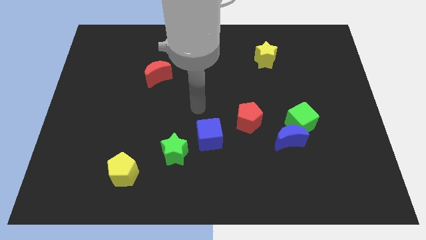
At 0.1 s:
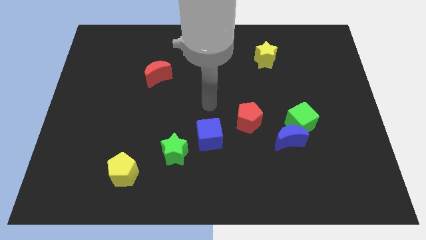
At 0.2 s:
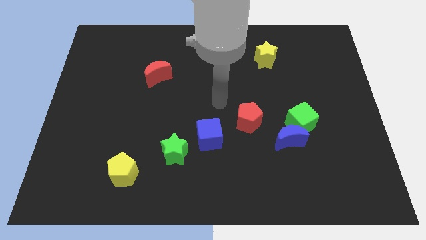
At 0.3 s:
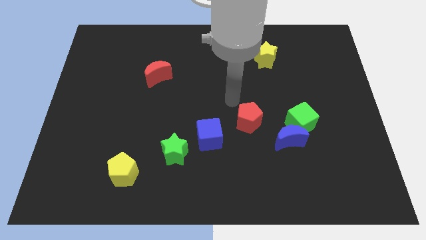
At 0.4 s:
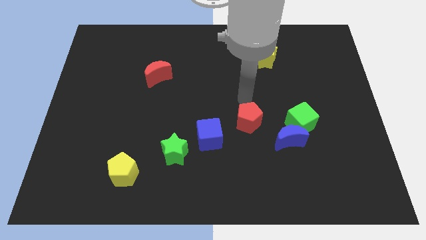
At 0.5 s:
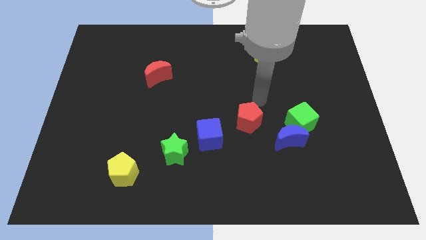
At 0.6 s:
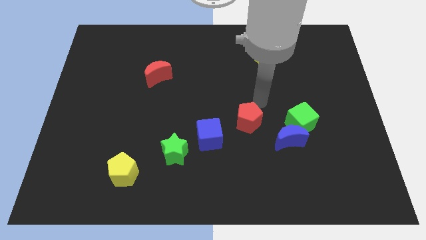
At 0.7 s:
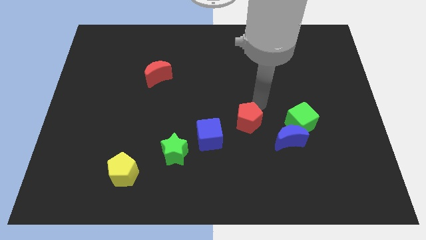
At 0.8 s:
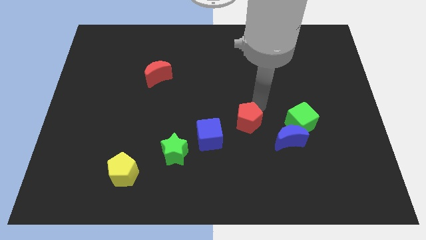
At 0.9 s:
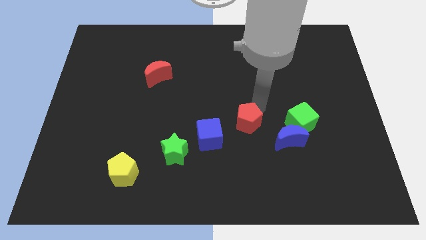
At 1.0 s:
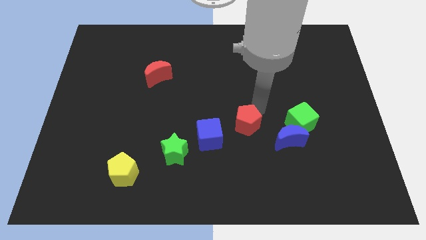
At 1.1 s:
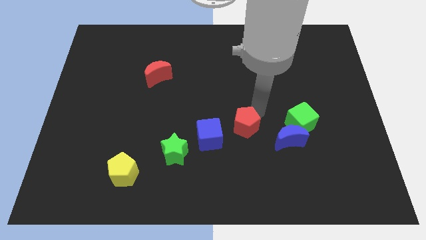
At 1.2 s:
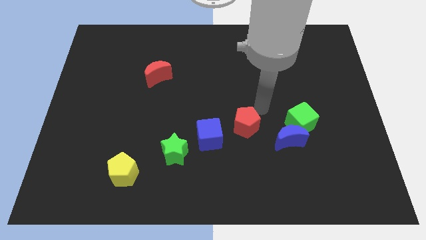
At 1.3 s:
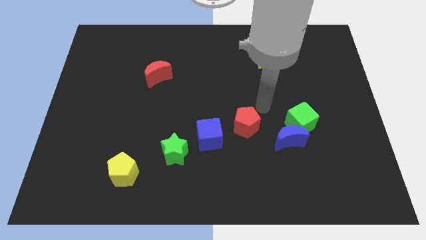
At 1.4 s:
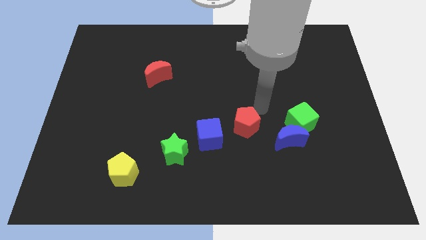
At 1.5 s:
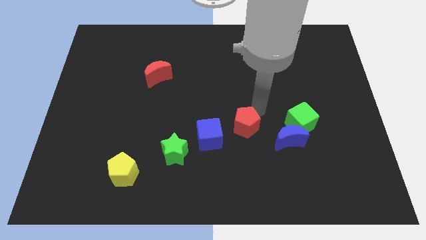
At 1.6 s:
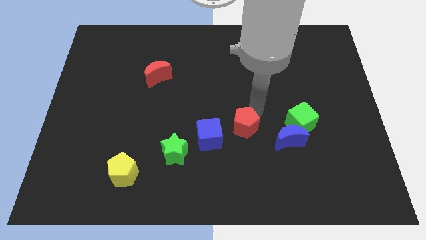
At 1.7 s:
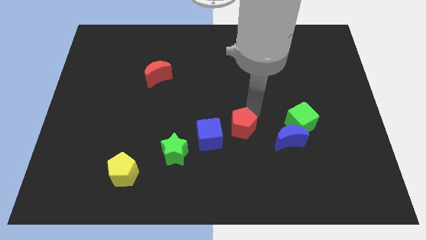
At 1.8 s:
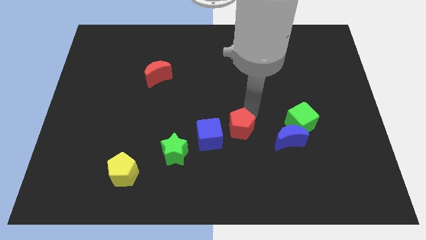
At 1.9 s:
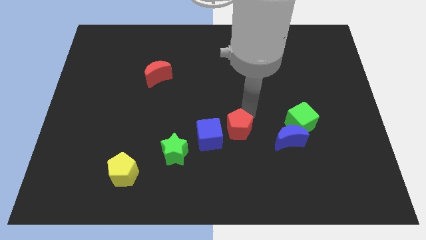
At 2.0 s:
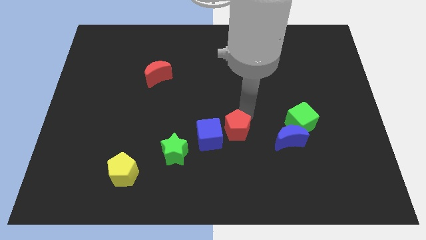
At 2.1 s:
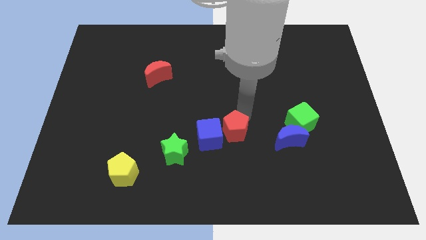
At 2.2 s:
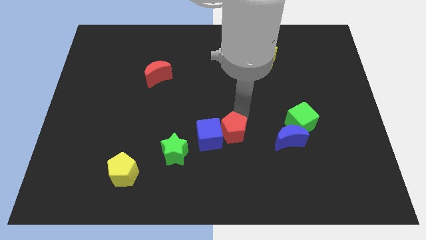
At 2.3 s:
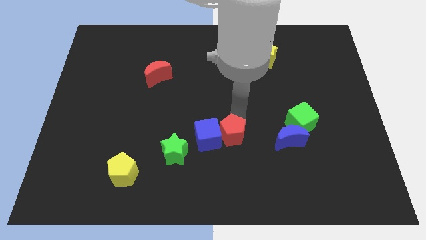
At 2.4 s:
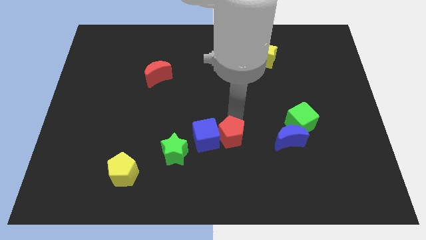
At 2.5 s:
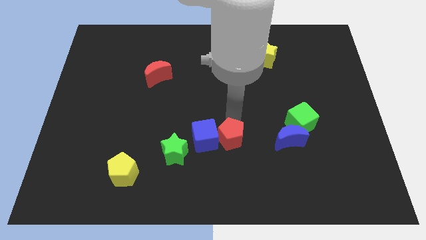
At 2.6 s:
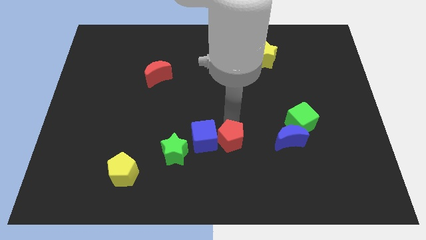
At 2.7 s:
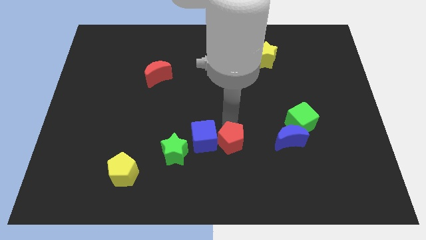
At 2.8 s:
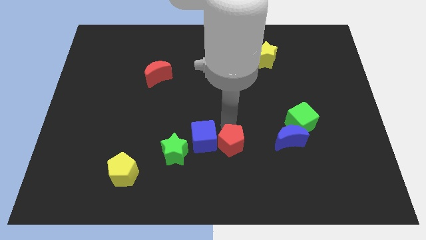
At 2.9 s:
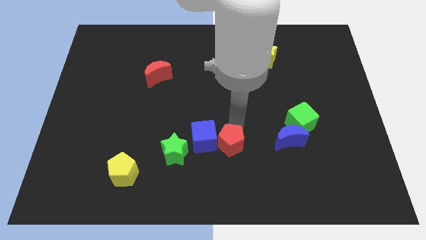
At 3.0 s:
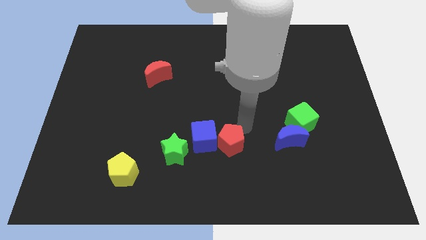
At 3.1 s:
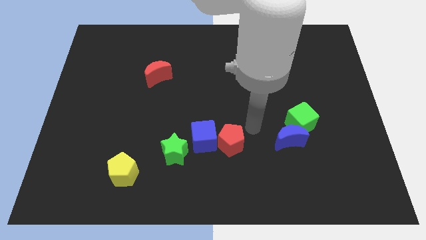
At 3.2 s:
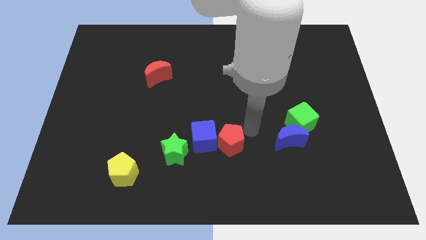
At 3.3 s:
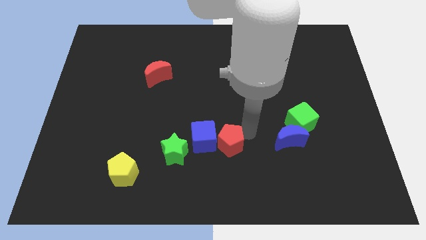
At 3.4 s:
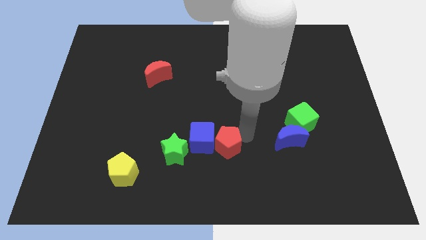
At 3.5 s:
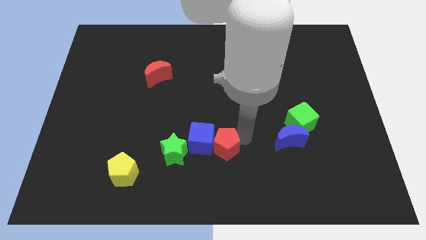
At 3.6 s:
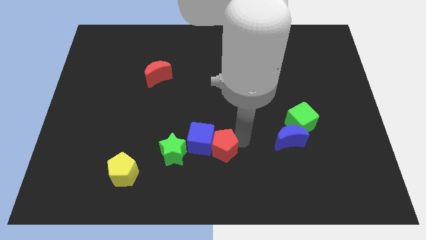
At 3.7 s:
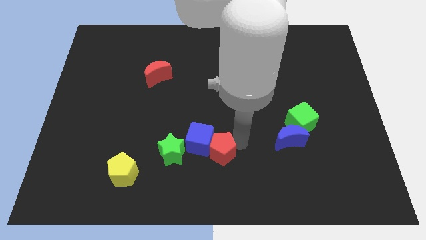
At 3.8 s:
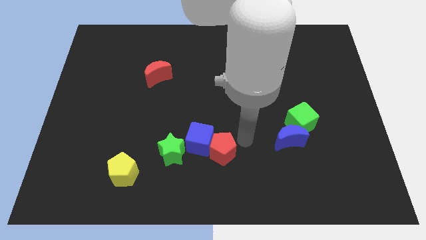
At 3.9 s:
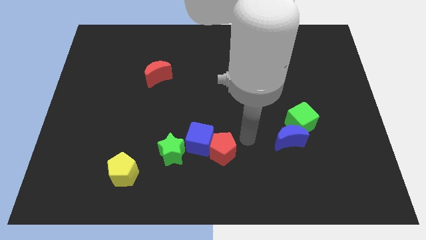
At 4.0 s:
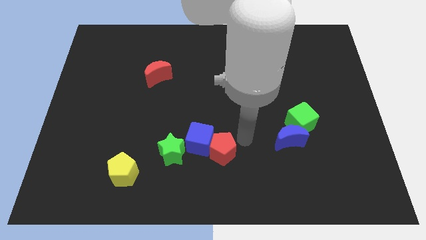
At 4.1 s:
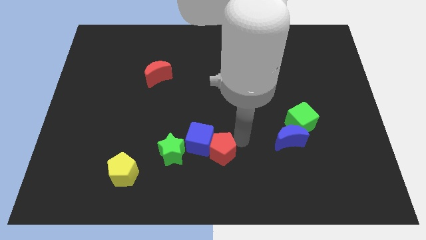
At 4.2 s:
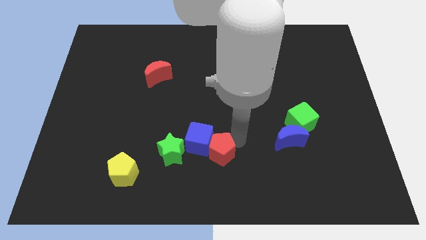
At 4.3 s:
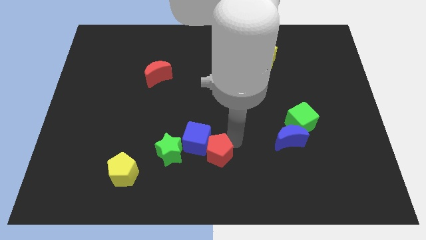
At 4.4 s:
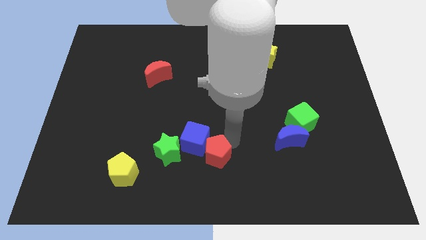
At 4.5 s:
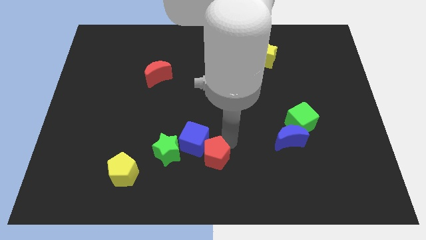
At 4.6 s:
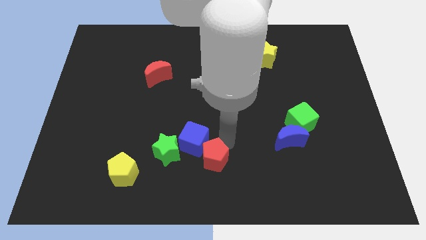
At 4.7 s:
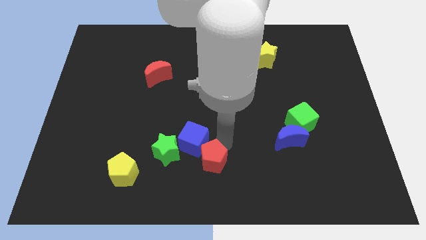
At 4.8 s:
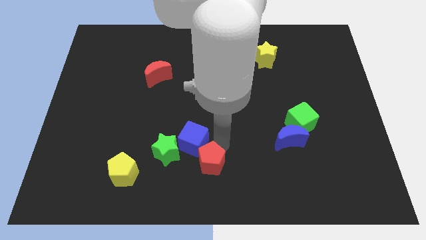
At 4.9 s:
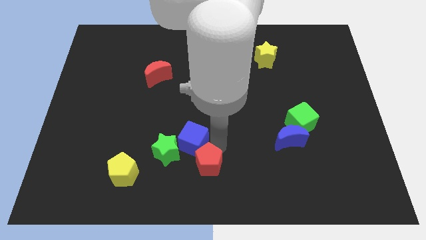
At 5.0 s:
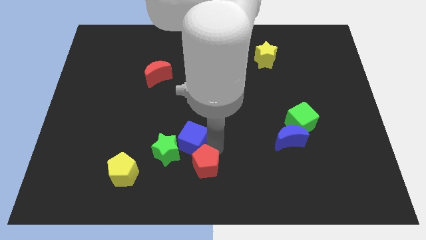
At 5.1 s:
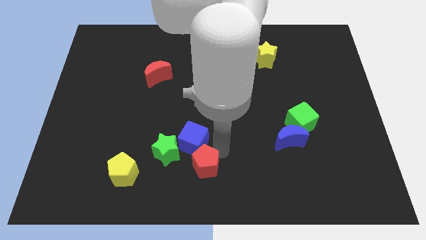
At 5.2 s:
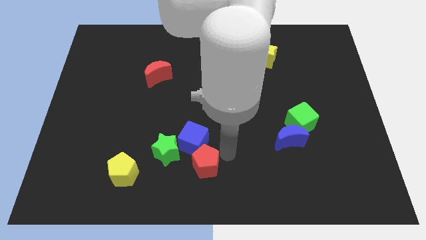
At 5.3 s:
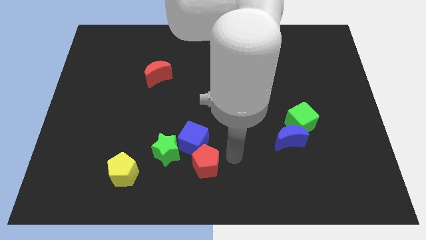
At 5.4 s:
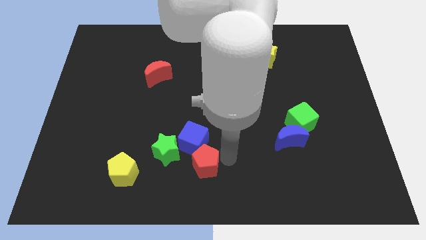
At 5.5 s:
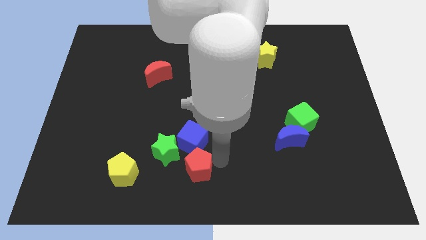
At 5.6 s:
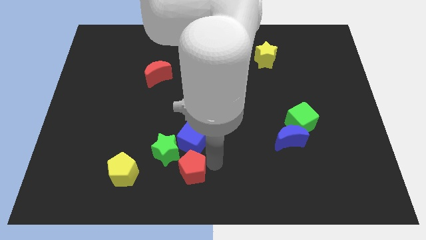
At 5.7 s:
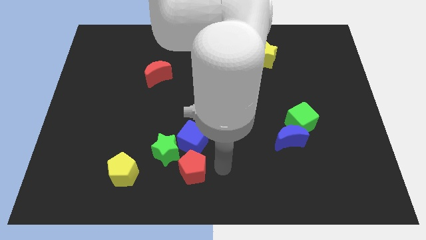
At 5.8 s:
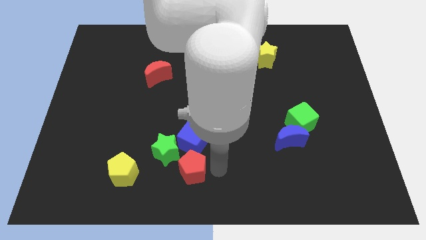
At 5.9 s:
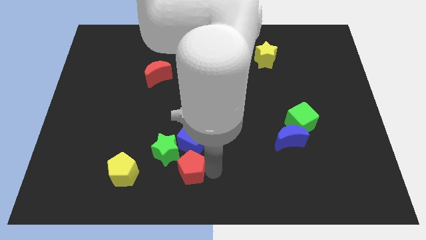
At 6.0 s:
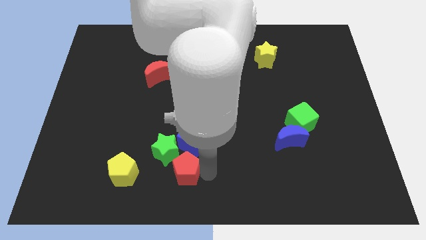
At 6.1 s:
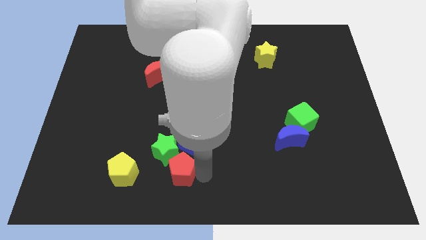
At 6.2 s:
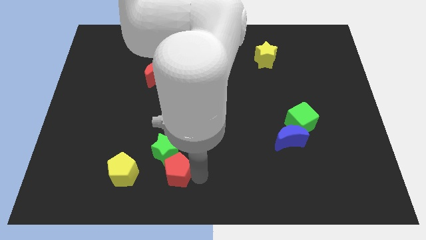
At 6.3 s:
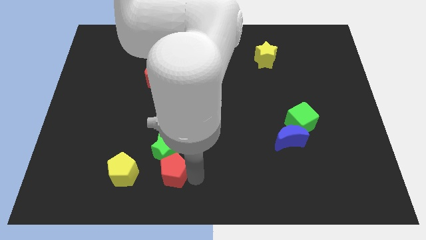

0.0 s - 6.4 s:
move the red pentagon diagonally down and to the left of the green star

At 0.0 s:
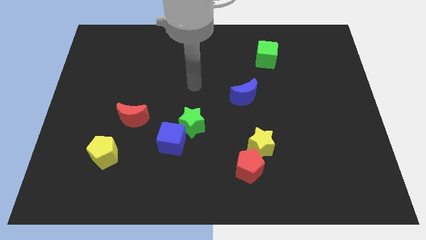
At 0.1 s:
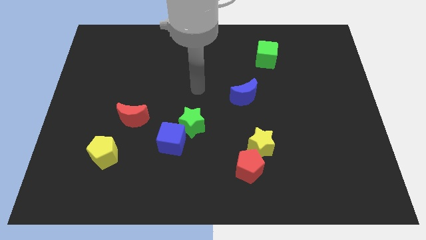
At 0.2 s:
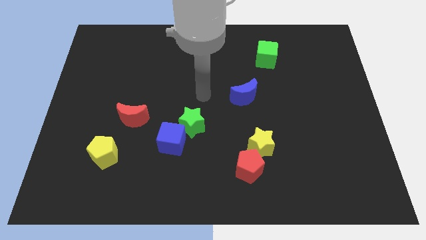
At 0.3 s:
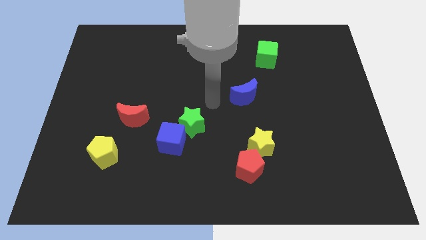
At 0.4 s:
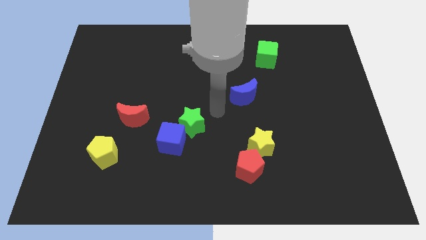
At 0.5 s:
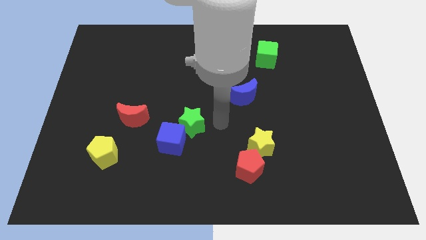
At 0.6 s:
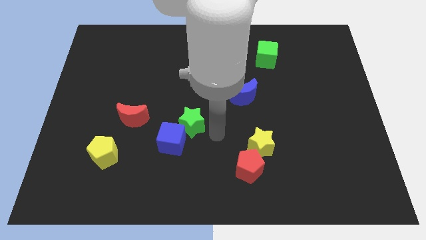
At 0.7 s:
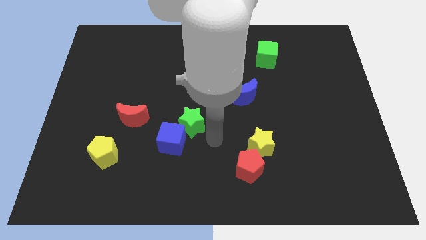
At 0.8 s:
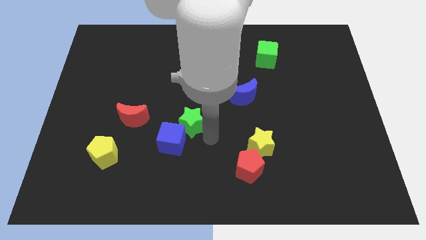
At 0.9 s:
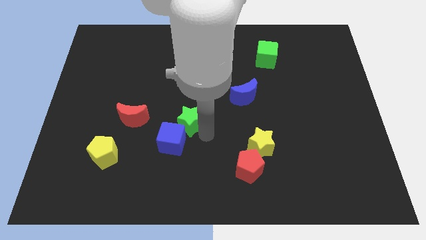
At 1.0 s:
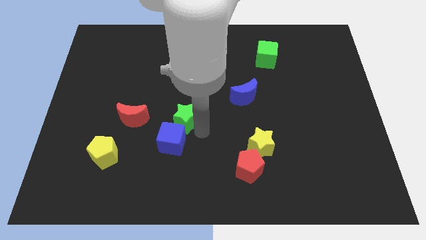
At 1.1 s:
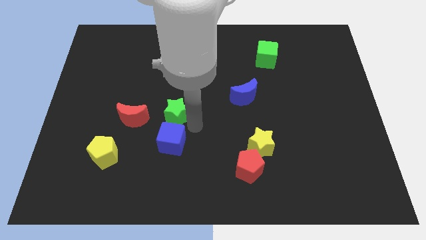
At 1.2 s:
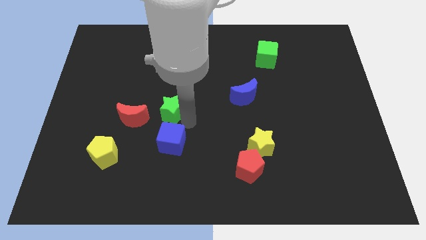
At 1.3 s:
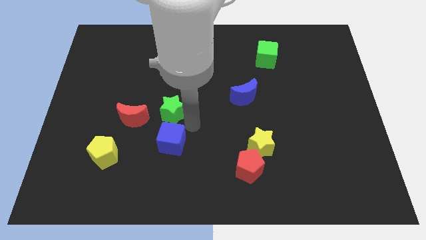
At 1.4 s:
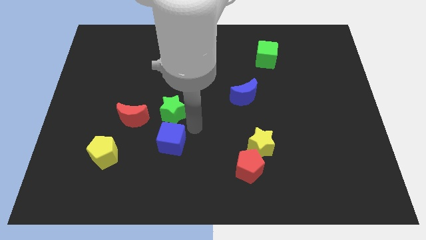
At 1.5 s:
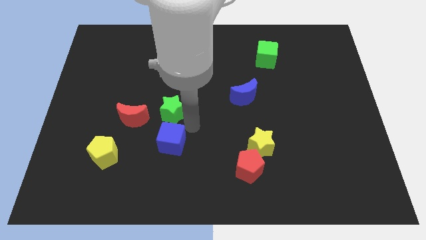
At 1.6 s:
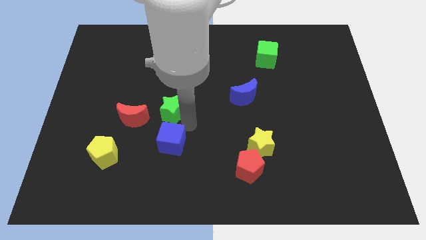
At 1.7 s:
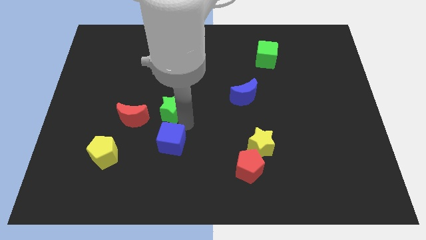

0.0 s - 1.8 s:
move the green star to the top right side of the red moon
